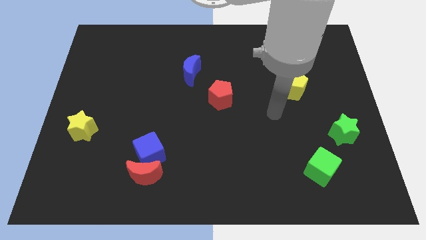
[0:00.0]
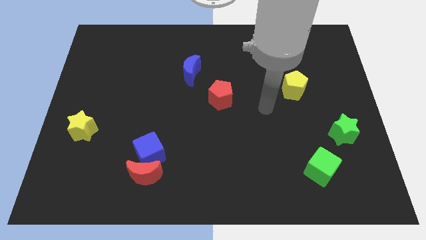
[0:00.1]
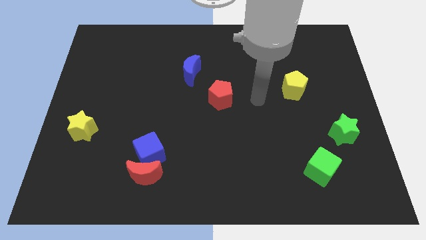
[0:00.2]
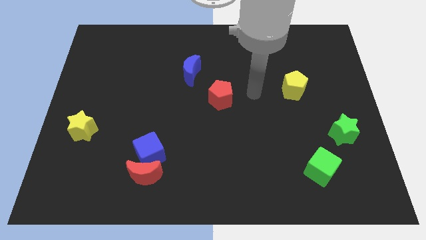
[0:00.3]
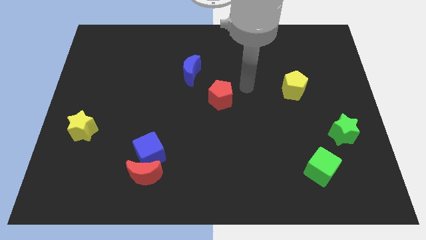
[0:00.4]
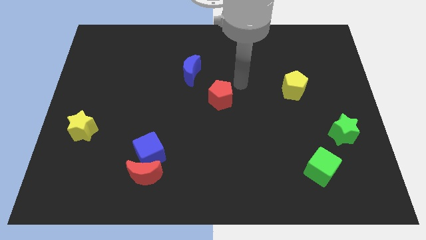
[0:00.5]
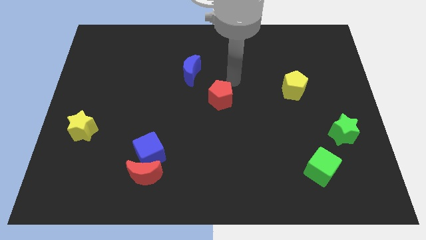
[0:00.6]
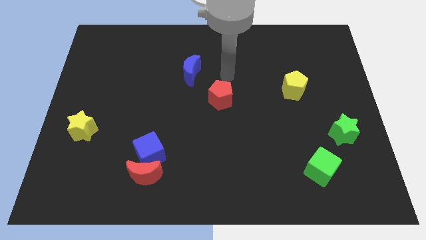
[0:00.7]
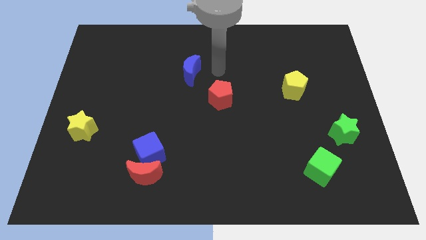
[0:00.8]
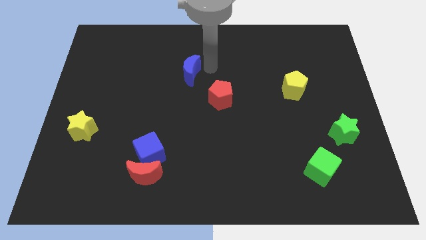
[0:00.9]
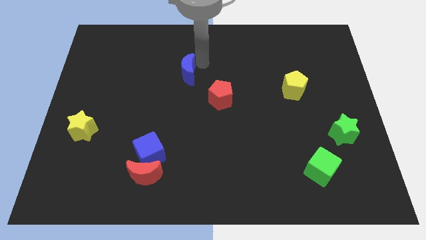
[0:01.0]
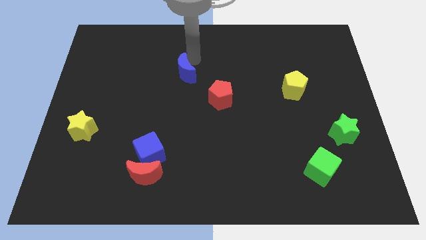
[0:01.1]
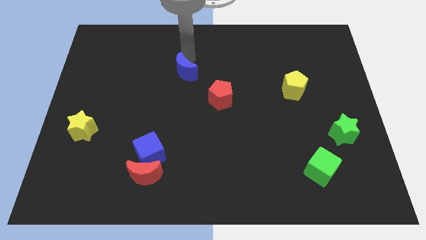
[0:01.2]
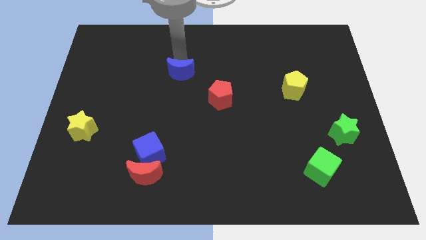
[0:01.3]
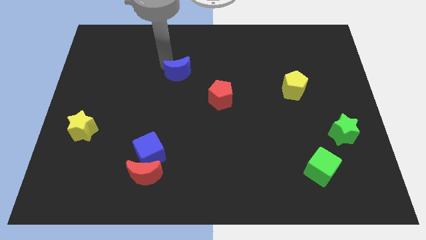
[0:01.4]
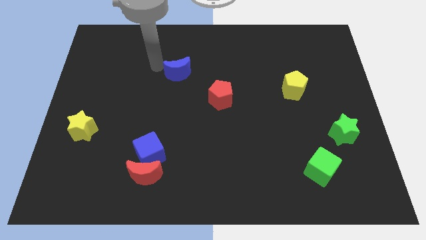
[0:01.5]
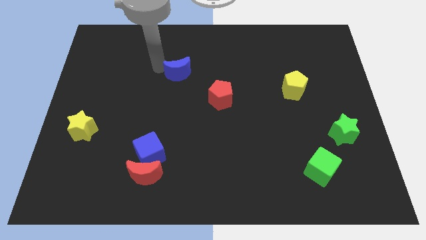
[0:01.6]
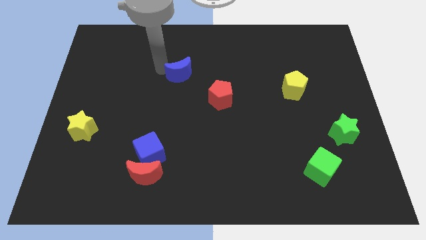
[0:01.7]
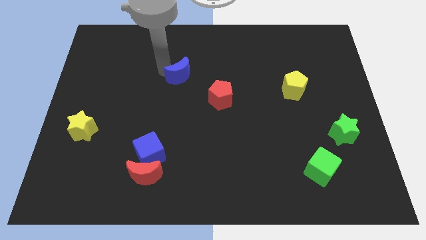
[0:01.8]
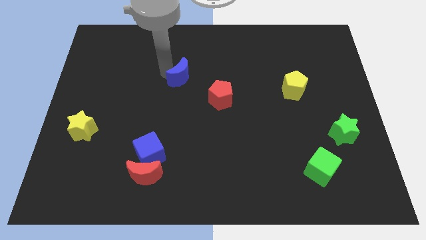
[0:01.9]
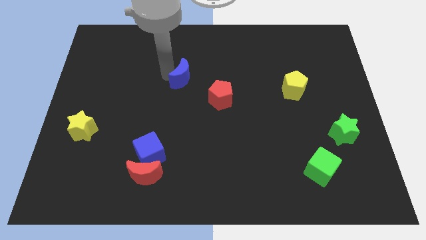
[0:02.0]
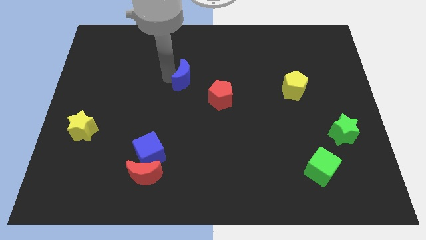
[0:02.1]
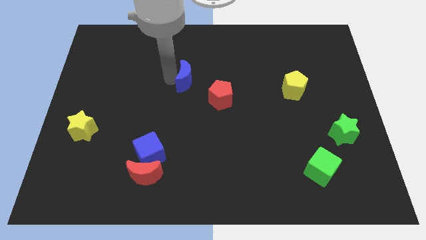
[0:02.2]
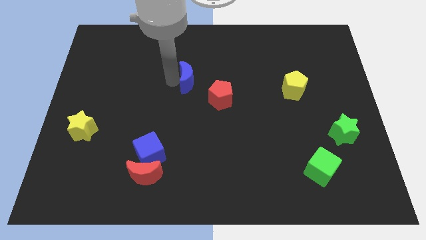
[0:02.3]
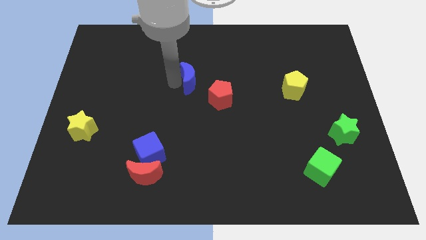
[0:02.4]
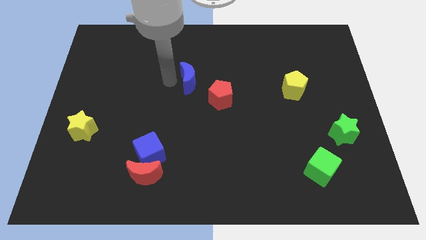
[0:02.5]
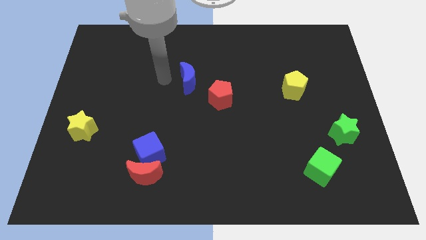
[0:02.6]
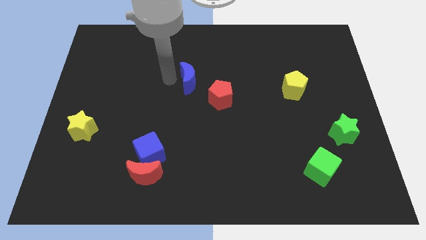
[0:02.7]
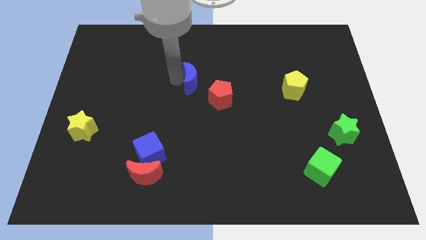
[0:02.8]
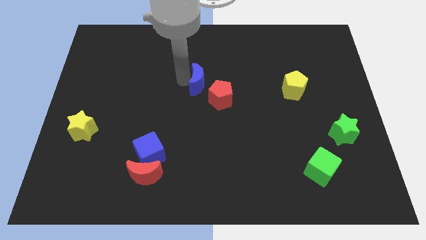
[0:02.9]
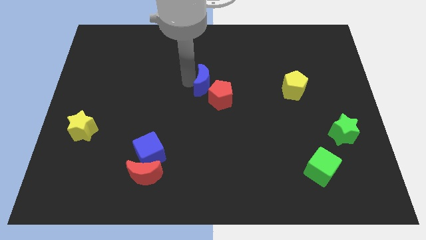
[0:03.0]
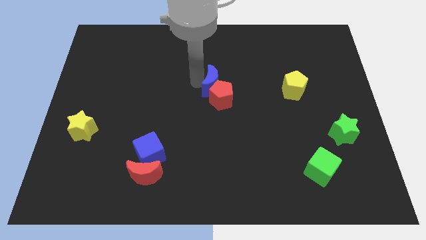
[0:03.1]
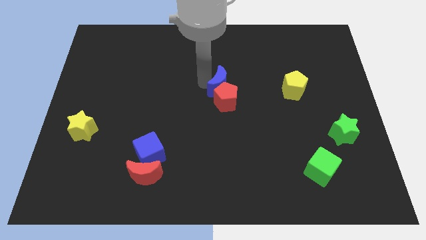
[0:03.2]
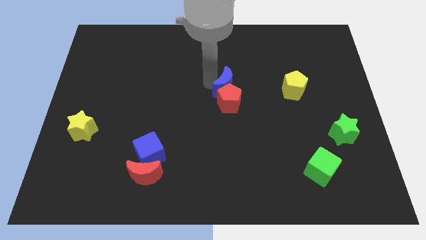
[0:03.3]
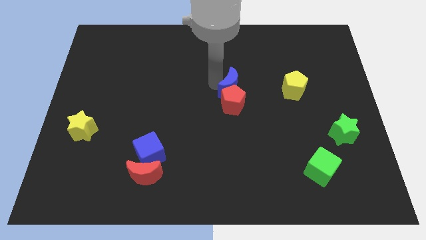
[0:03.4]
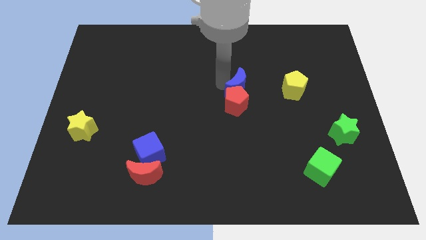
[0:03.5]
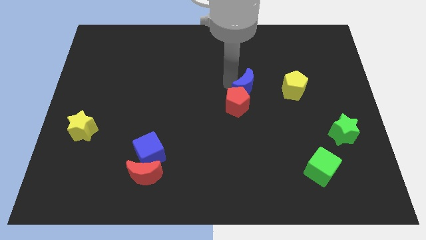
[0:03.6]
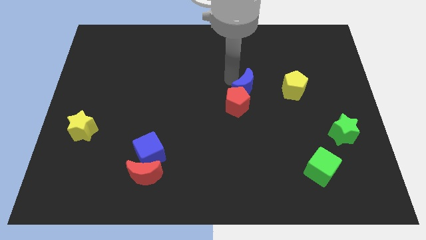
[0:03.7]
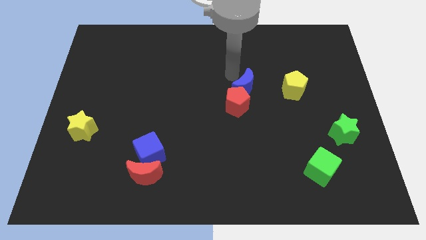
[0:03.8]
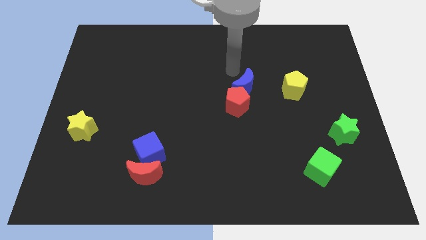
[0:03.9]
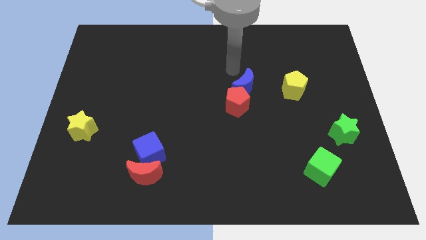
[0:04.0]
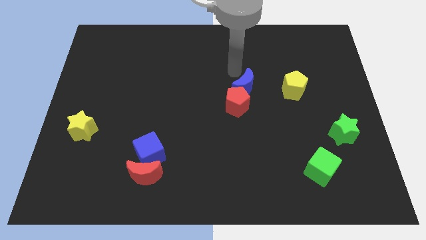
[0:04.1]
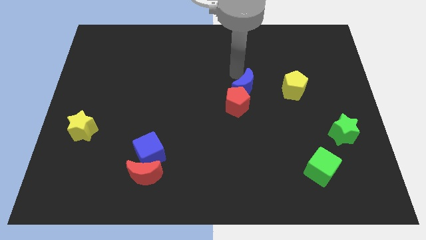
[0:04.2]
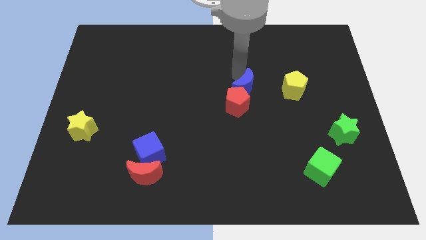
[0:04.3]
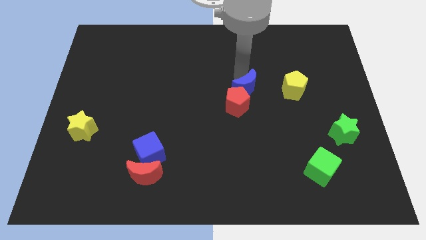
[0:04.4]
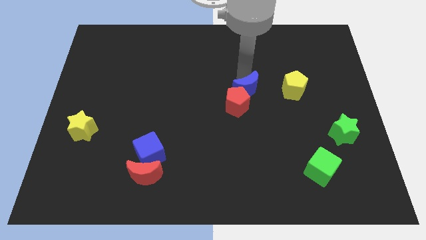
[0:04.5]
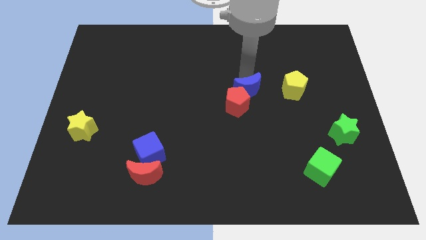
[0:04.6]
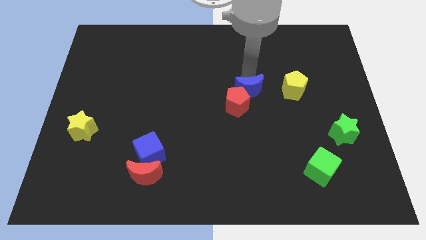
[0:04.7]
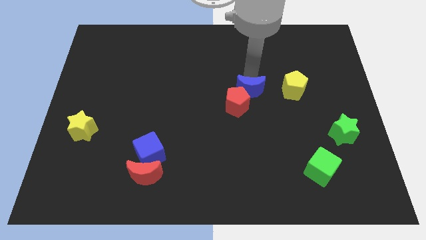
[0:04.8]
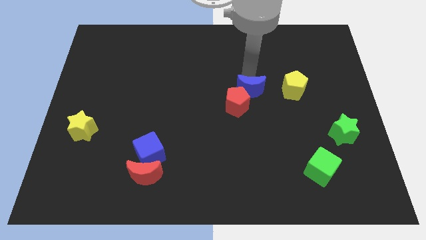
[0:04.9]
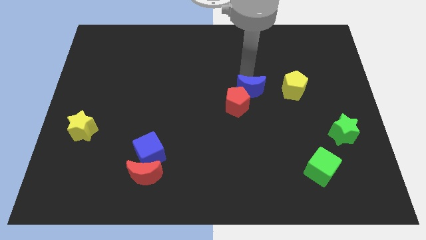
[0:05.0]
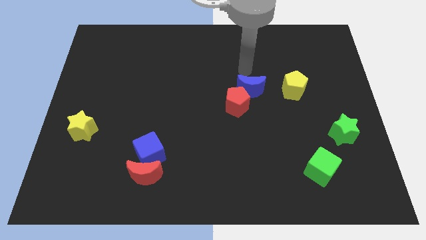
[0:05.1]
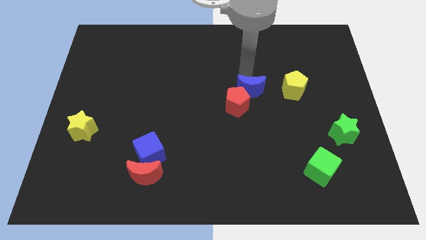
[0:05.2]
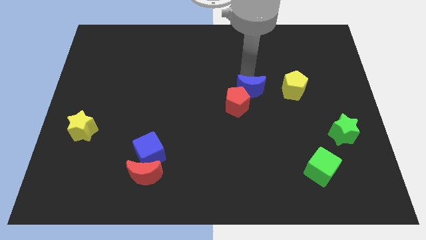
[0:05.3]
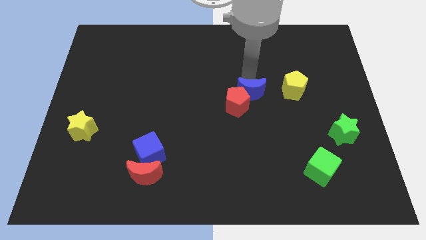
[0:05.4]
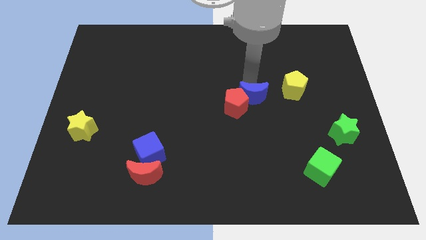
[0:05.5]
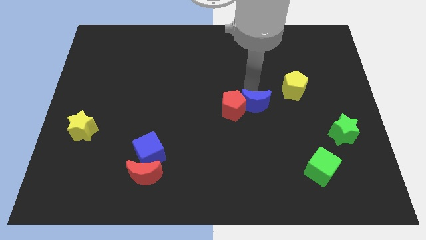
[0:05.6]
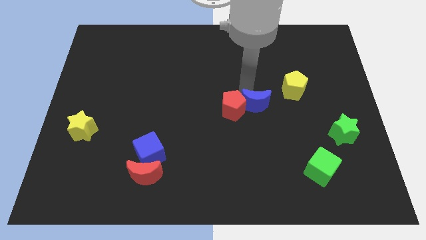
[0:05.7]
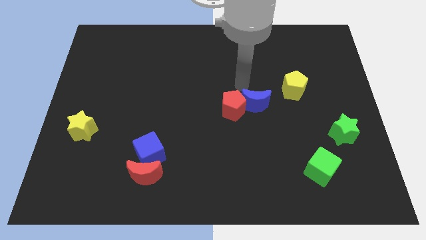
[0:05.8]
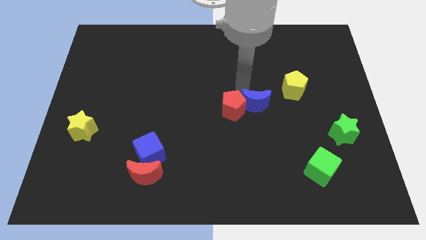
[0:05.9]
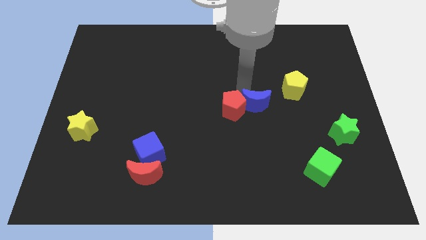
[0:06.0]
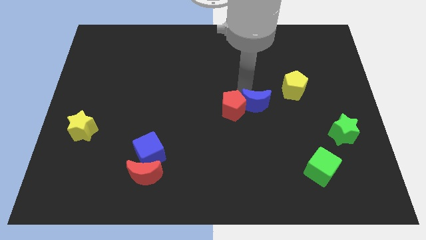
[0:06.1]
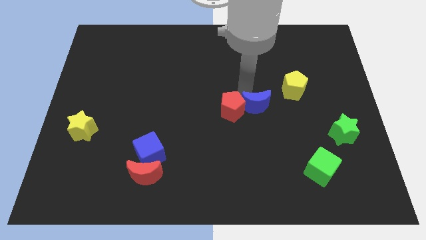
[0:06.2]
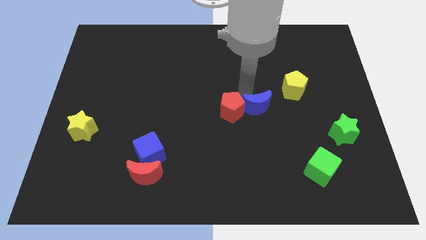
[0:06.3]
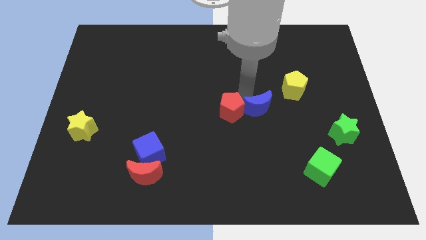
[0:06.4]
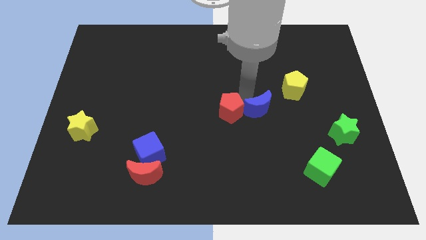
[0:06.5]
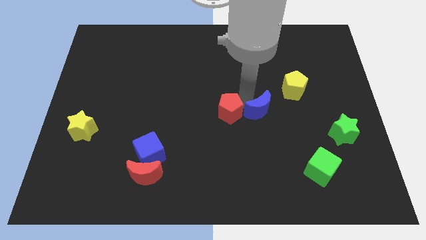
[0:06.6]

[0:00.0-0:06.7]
push the blue moon downwards and right diagonally

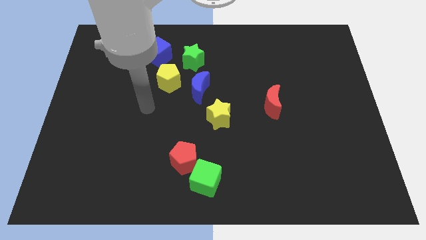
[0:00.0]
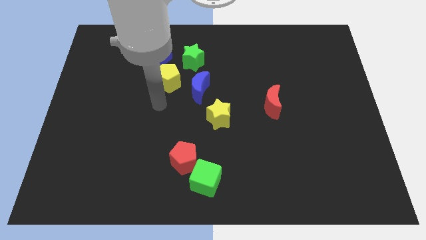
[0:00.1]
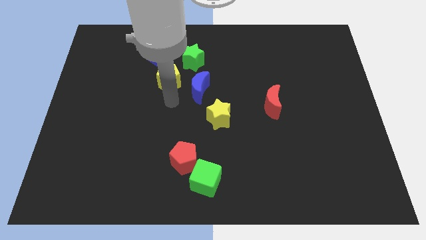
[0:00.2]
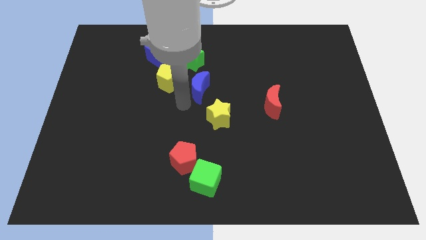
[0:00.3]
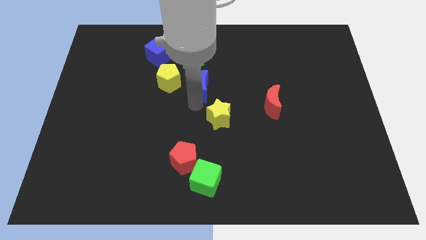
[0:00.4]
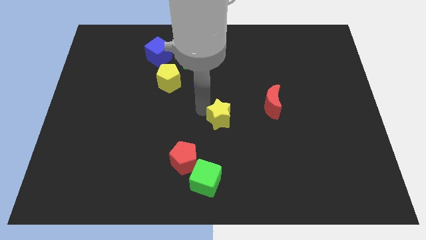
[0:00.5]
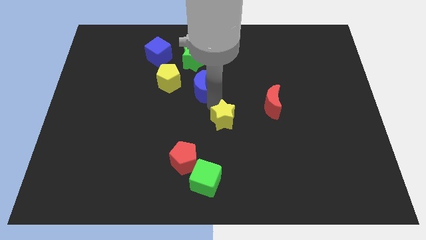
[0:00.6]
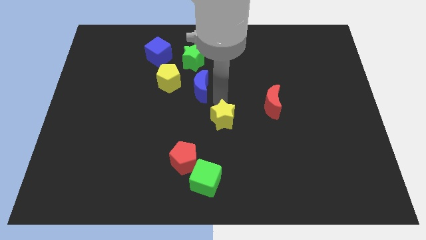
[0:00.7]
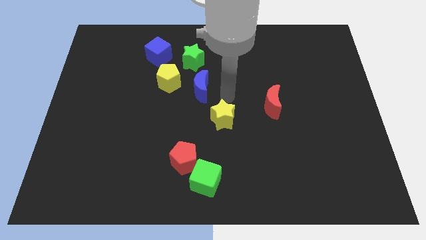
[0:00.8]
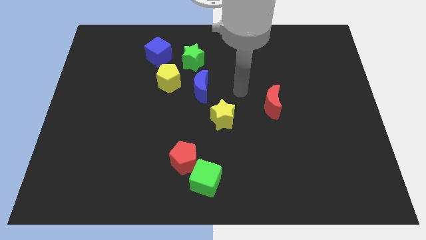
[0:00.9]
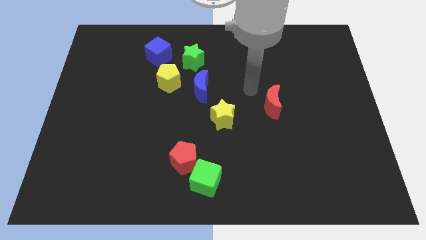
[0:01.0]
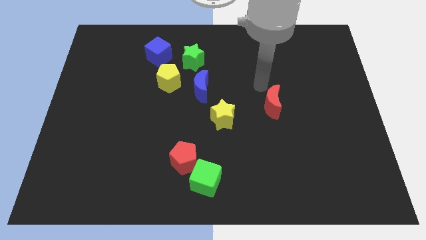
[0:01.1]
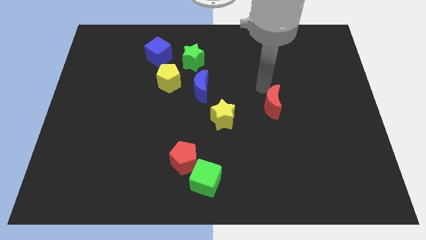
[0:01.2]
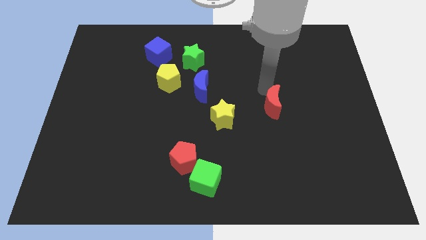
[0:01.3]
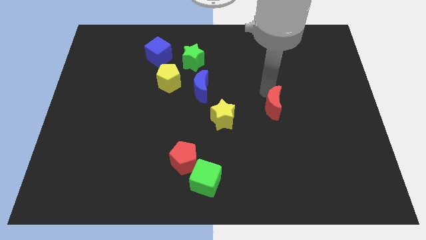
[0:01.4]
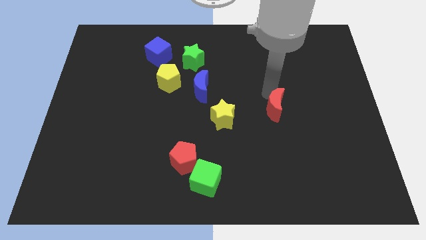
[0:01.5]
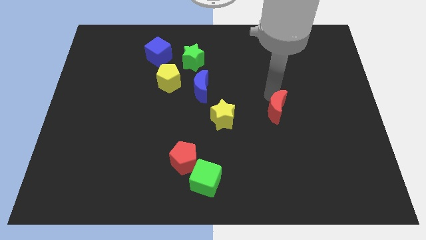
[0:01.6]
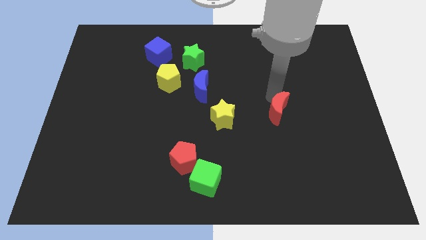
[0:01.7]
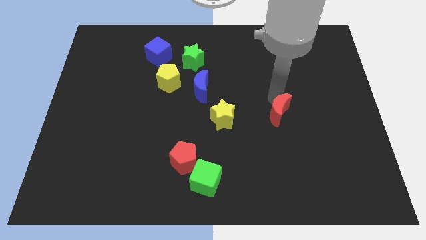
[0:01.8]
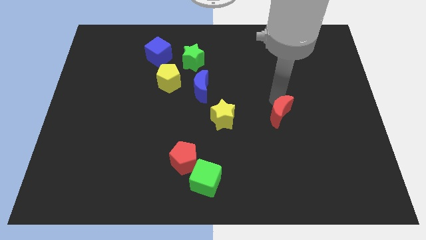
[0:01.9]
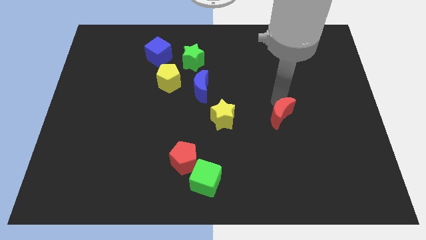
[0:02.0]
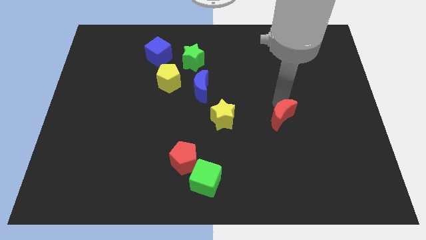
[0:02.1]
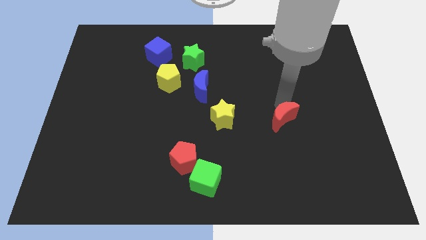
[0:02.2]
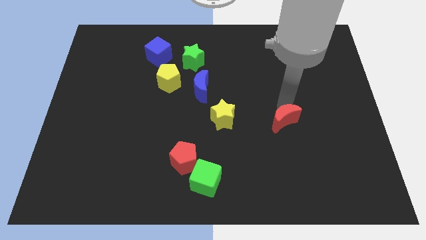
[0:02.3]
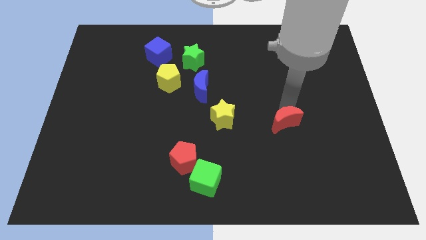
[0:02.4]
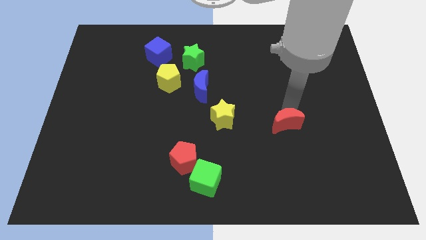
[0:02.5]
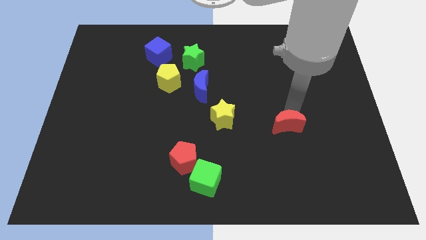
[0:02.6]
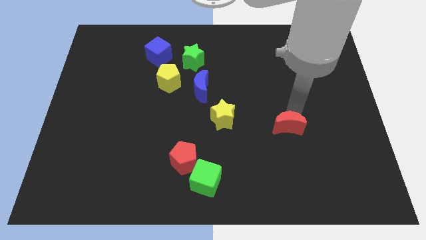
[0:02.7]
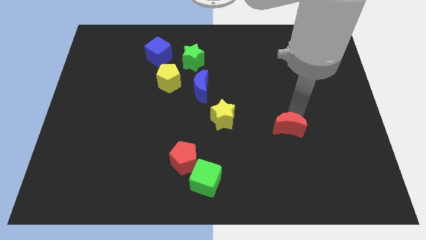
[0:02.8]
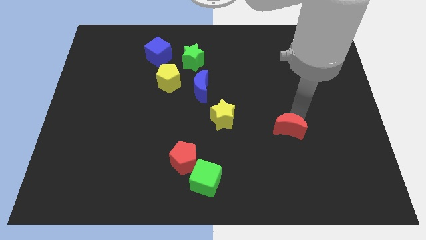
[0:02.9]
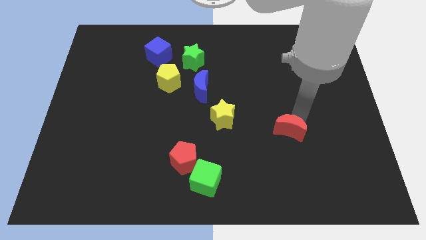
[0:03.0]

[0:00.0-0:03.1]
move the red moon downwards a little bit
